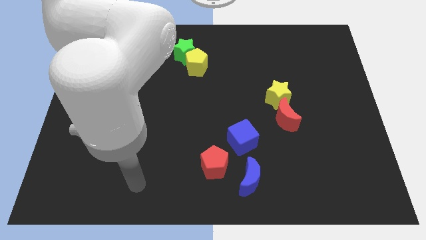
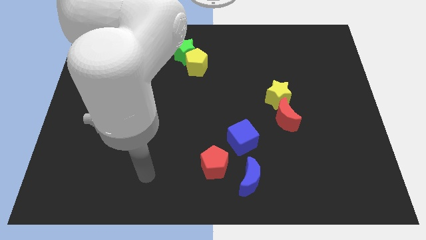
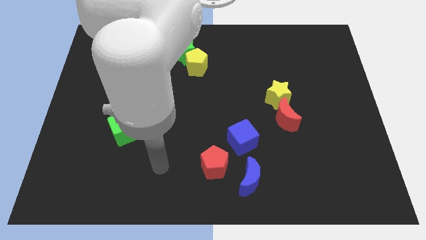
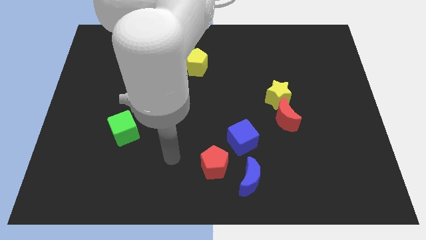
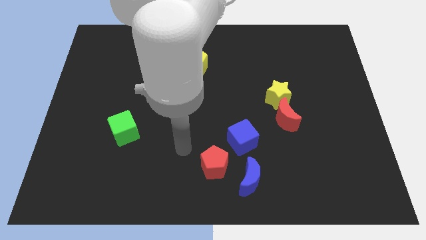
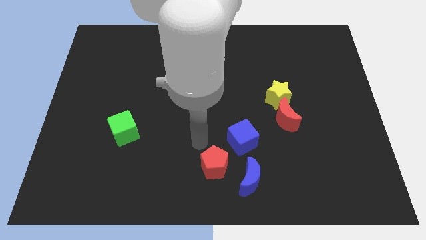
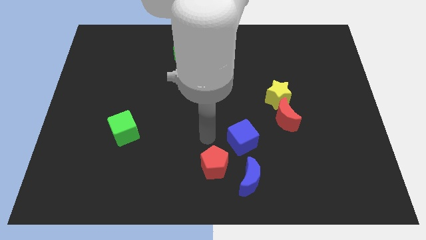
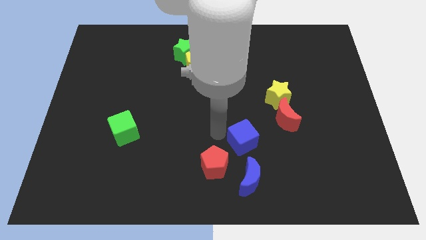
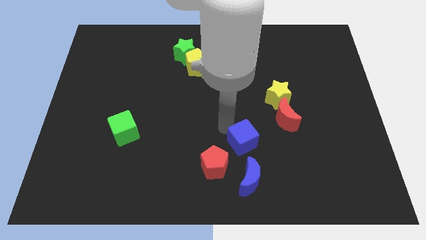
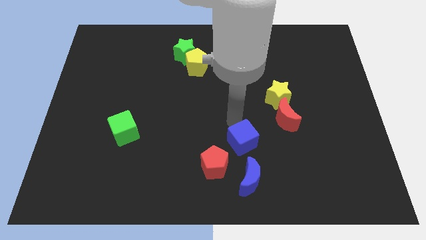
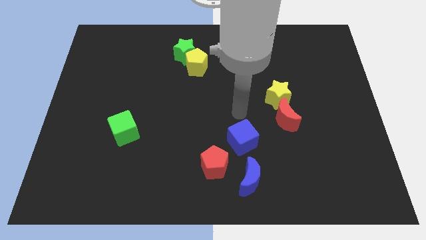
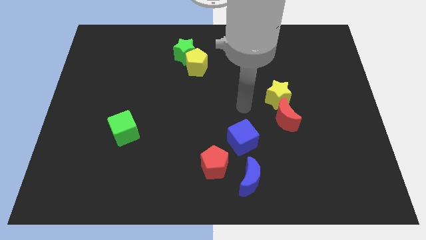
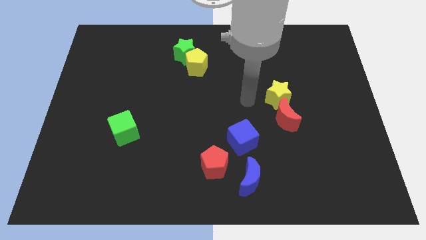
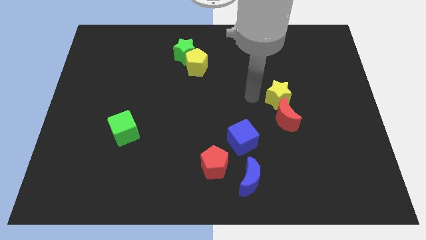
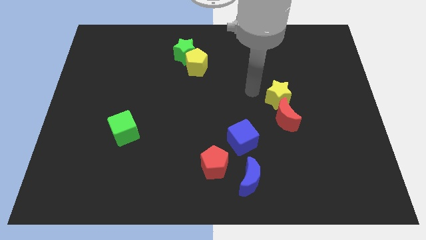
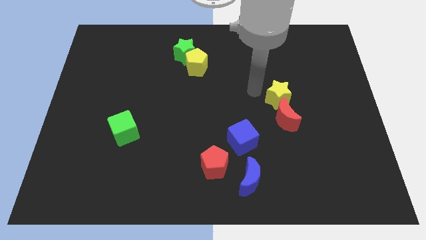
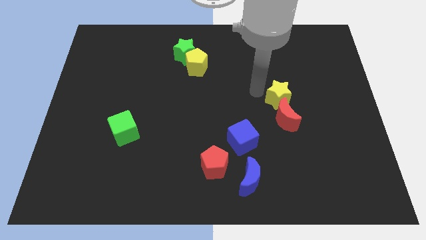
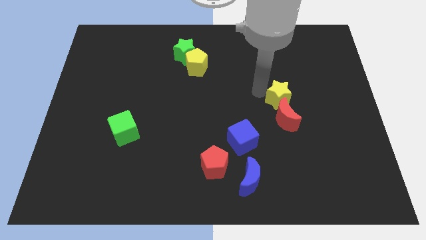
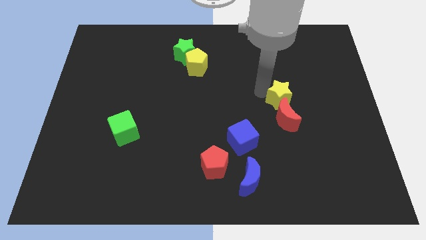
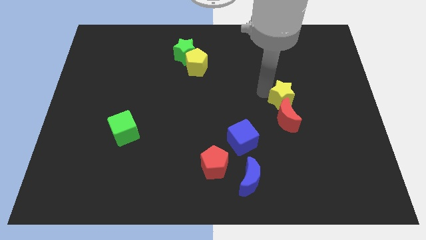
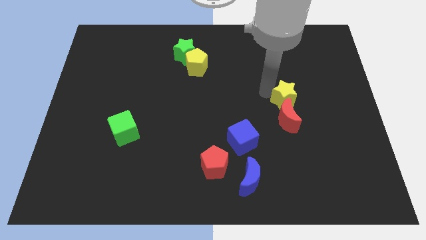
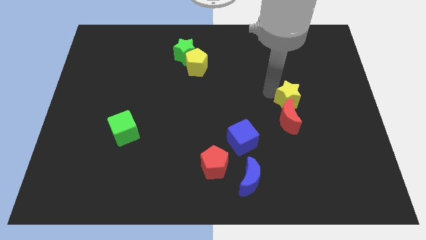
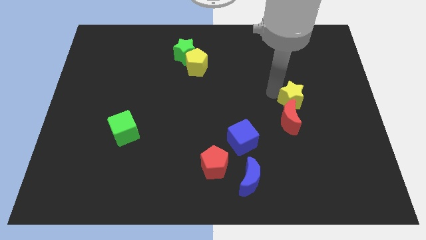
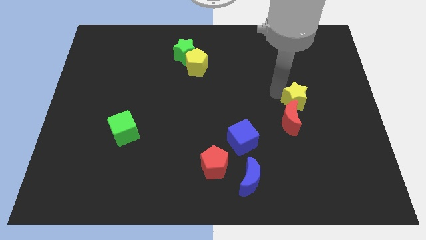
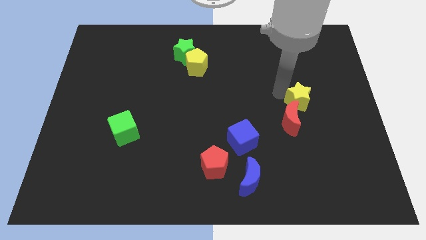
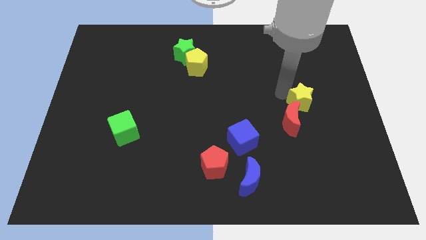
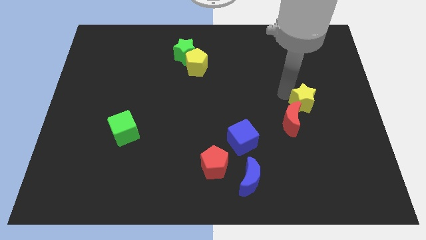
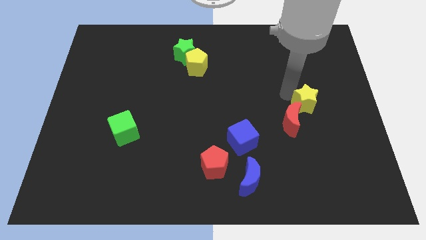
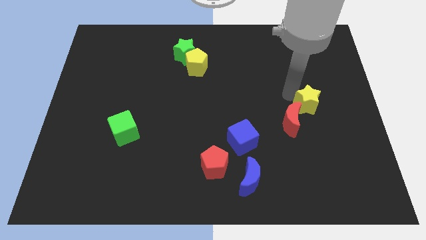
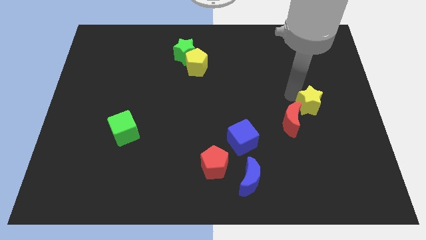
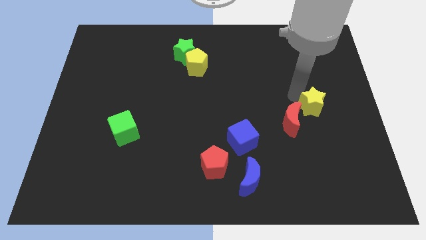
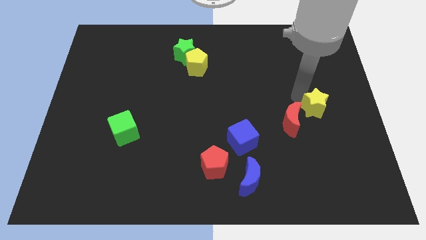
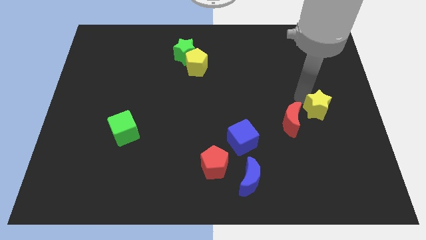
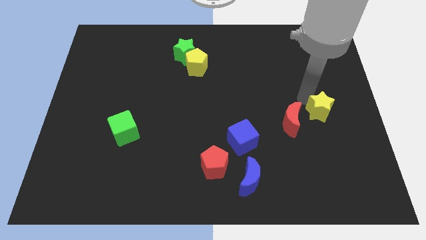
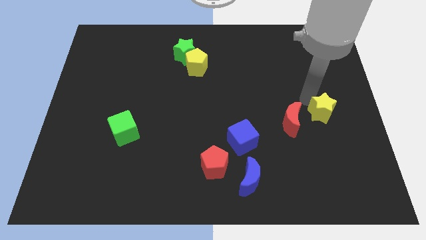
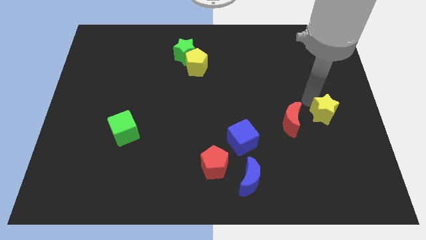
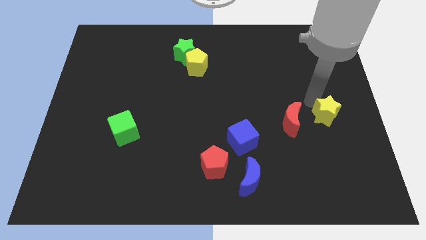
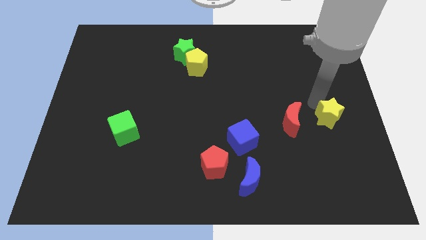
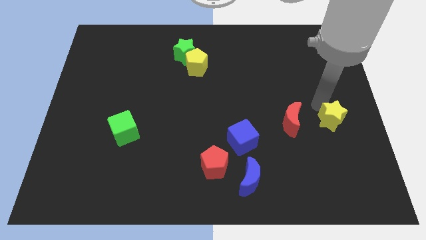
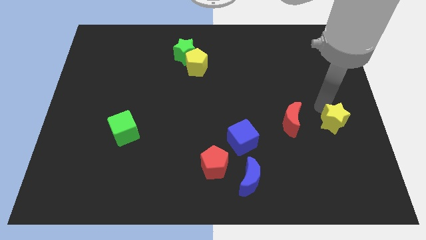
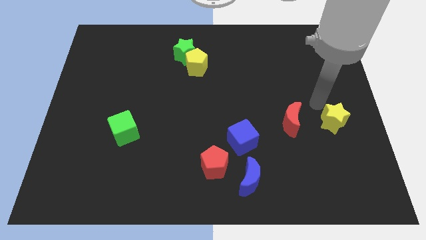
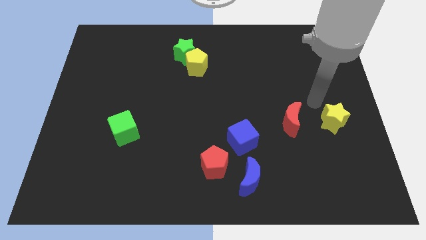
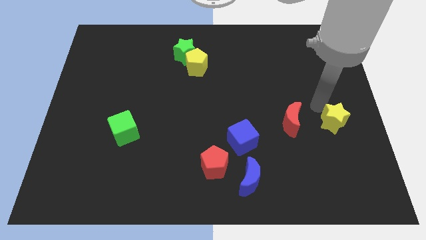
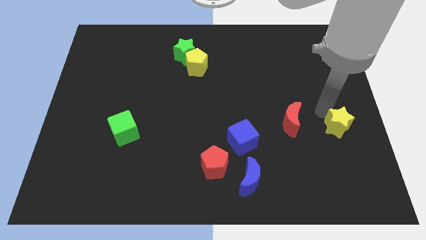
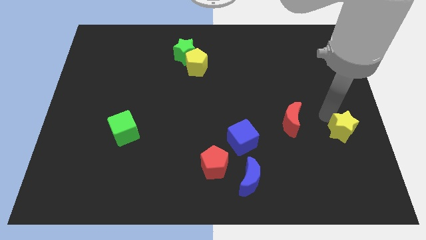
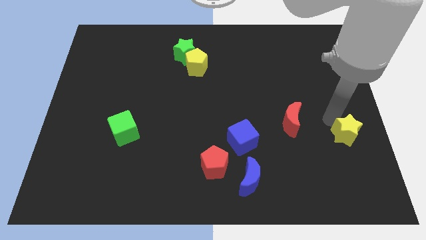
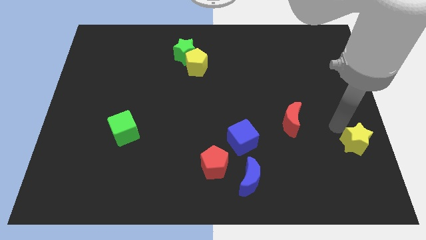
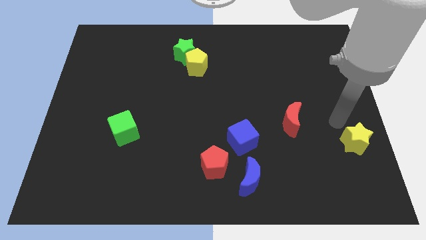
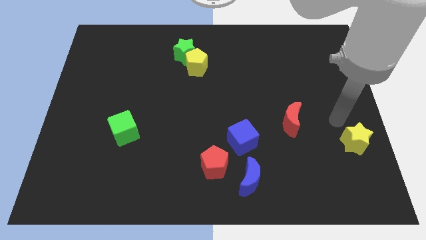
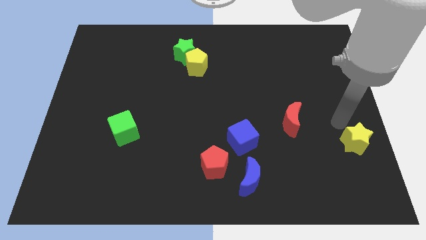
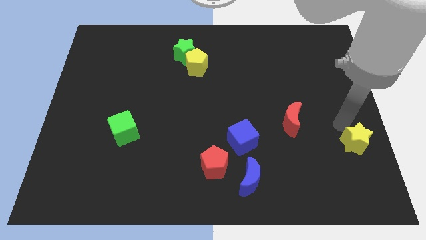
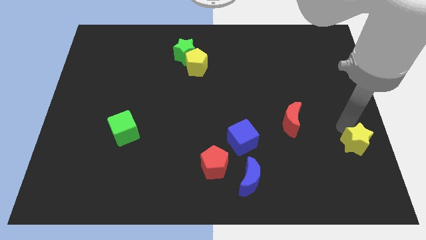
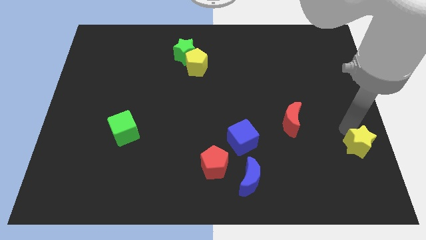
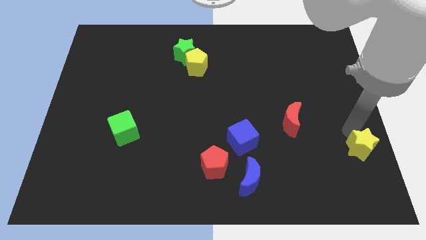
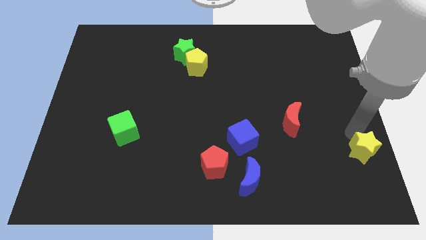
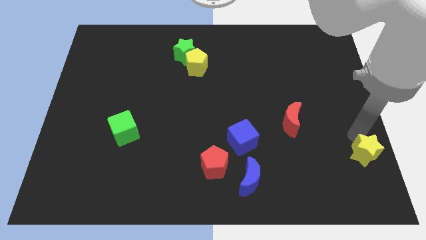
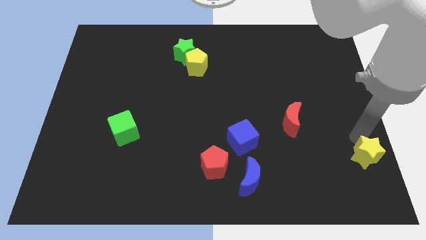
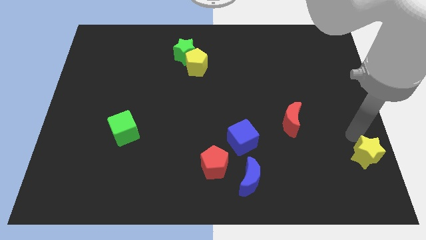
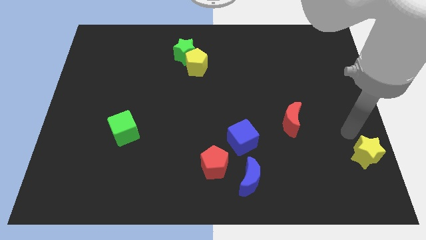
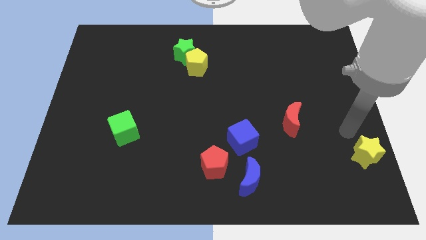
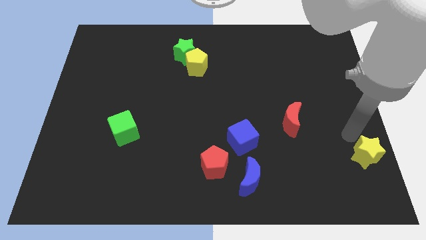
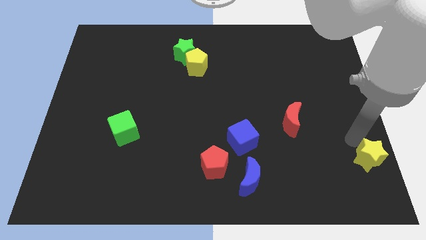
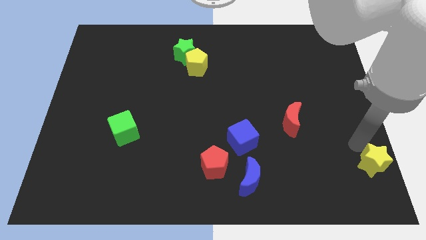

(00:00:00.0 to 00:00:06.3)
push the yellow star to the lower right corner

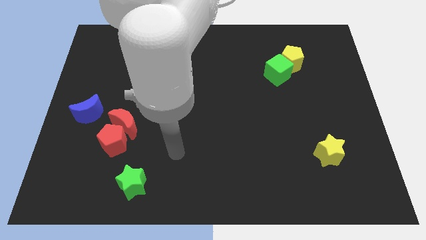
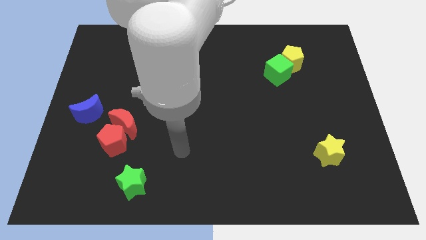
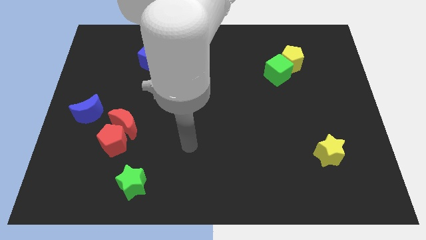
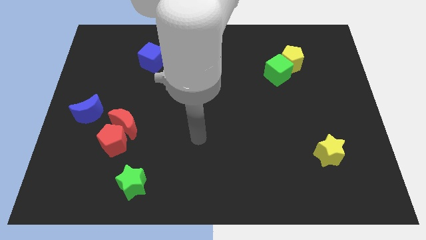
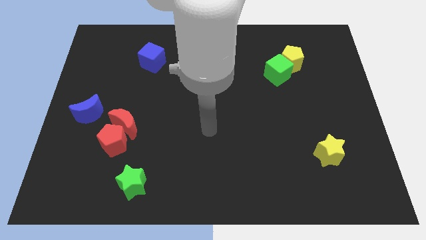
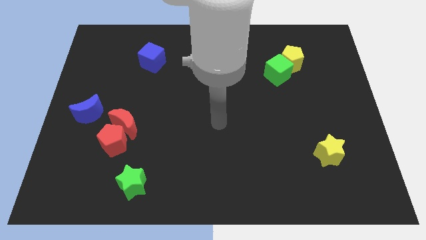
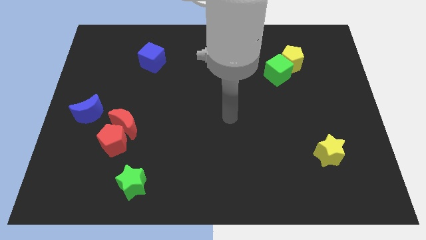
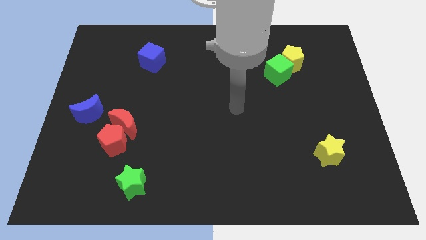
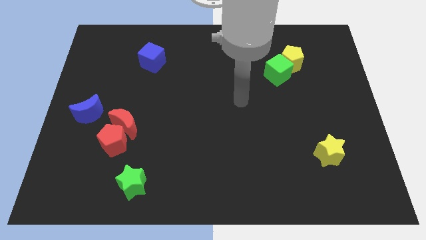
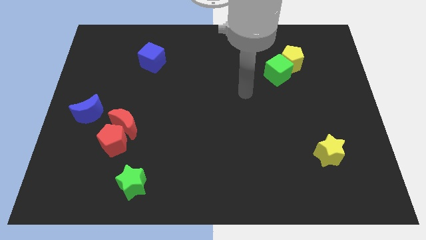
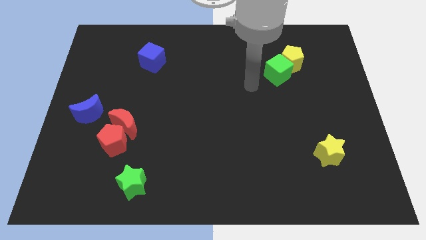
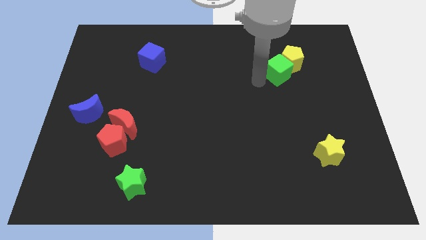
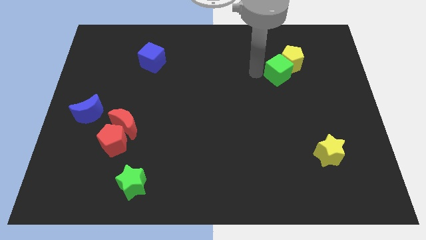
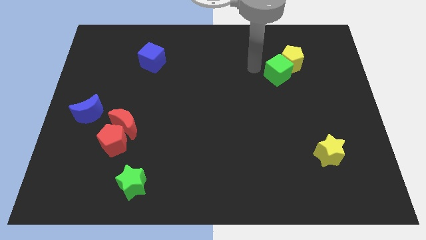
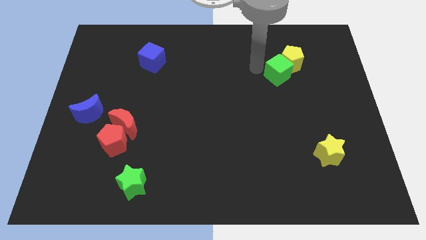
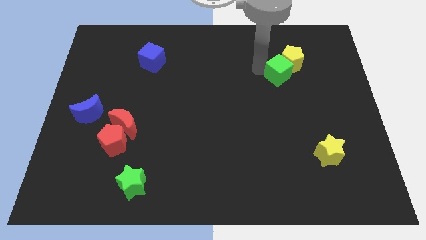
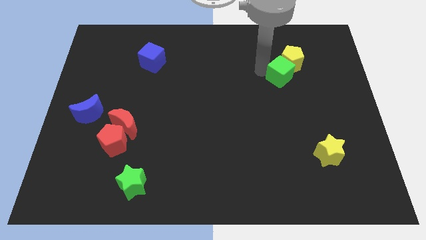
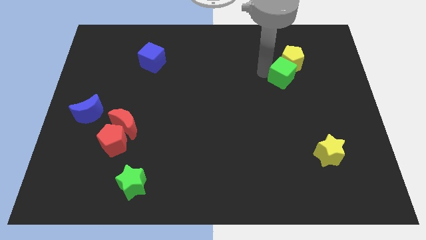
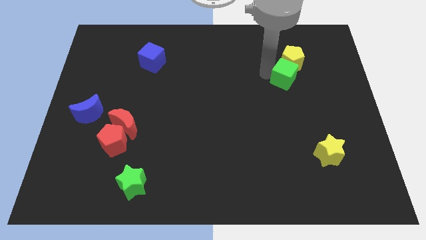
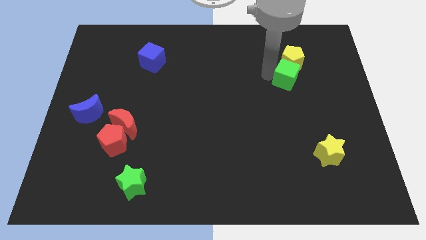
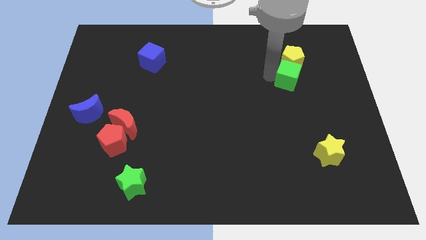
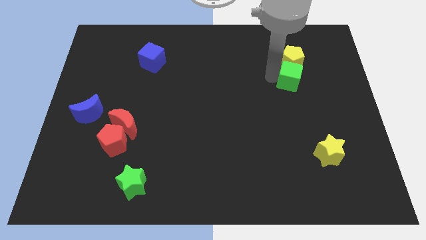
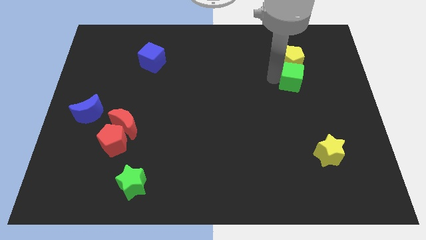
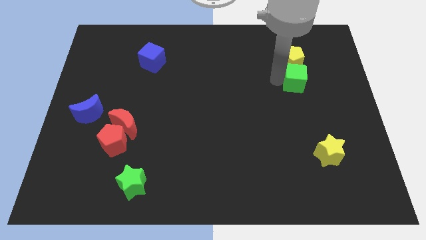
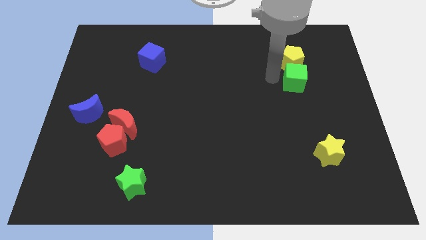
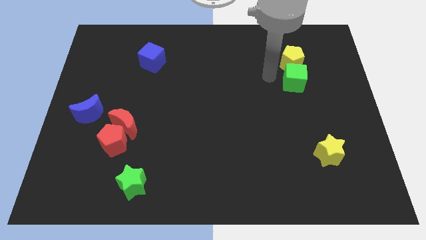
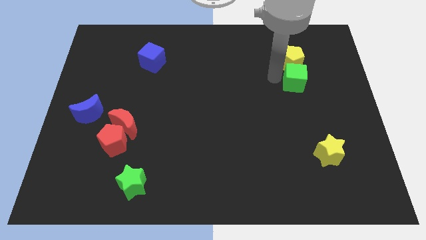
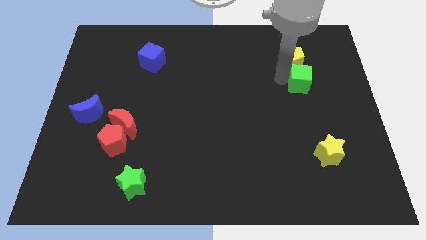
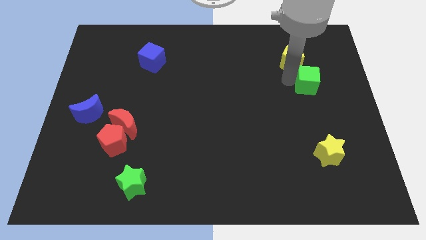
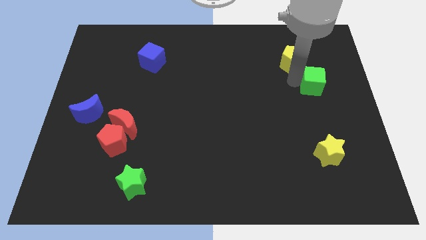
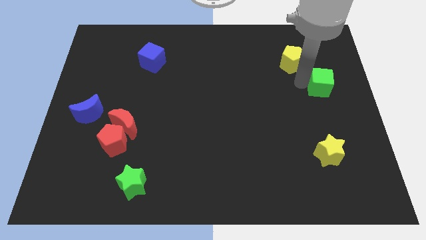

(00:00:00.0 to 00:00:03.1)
move the green cube to the right side
